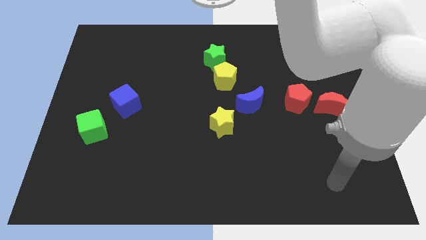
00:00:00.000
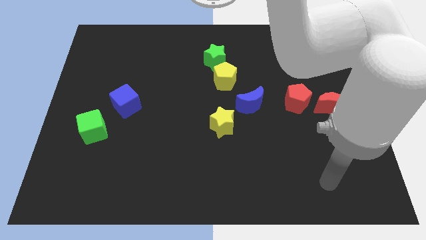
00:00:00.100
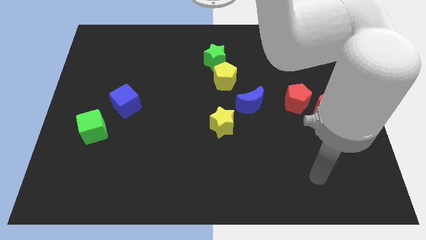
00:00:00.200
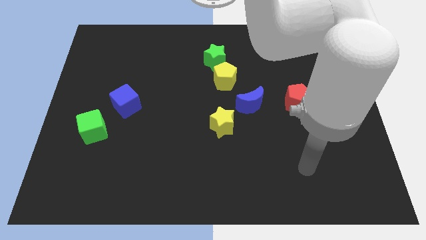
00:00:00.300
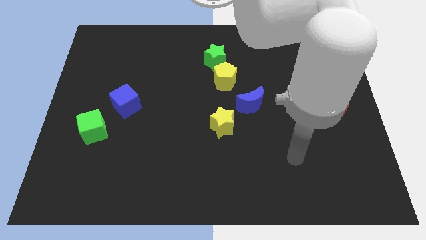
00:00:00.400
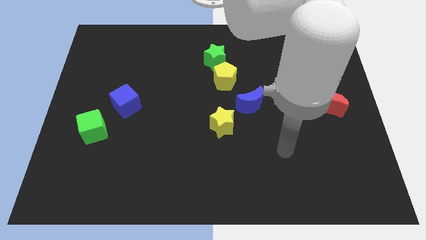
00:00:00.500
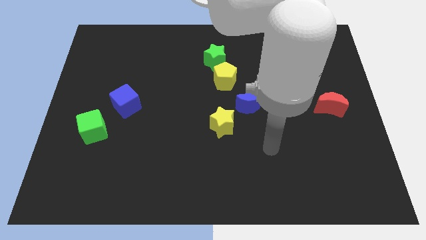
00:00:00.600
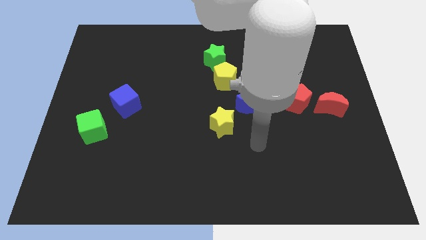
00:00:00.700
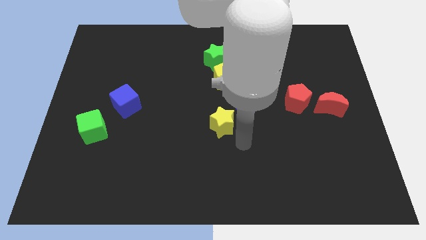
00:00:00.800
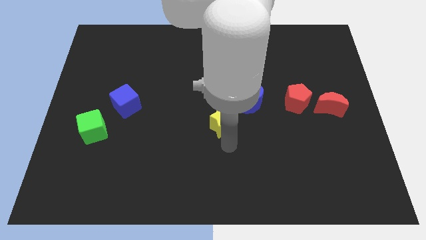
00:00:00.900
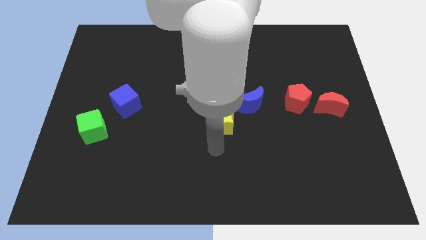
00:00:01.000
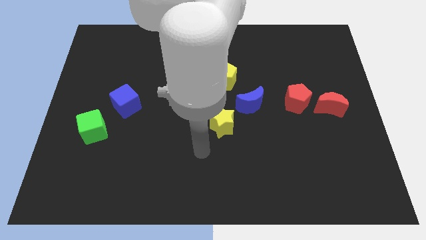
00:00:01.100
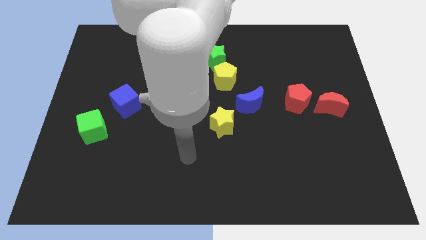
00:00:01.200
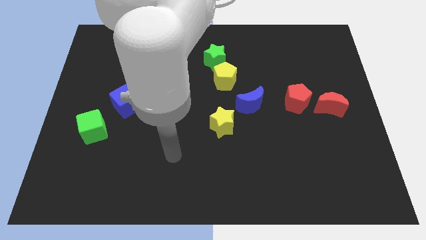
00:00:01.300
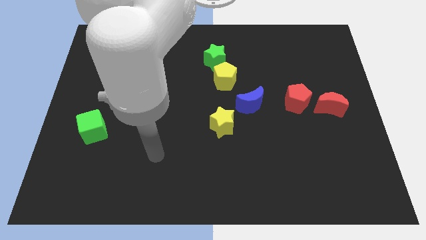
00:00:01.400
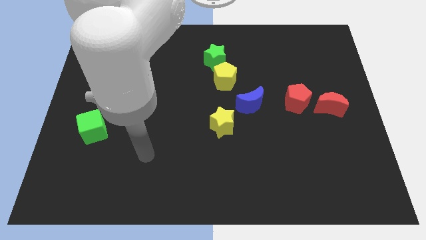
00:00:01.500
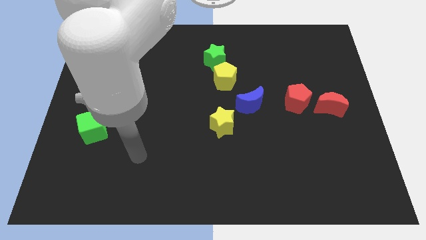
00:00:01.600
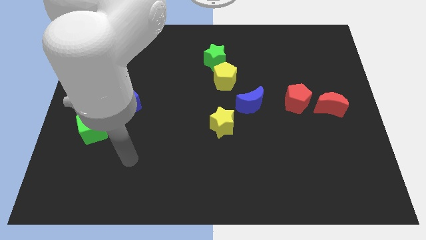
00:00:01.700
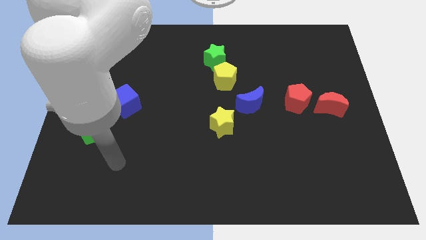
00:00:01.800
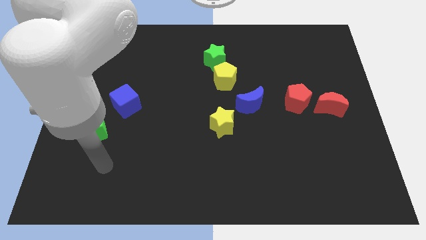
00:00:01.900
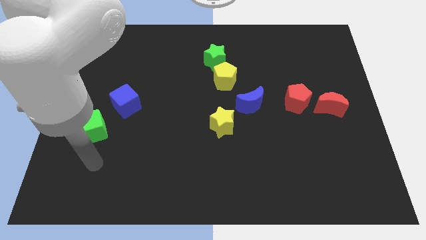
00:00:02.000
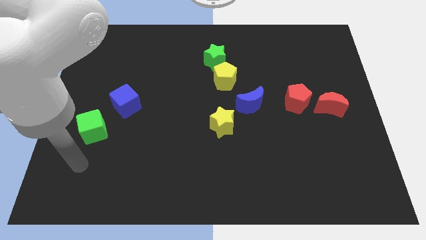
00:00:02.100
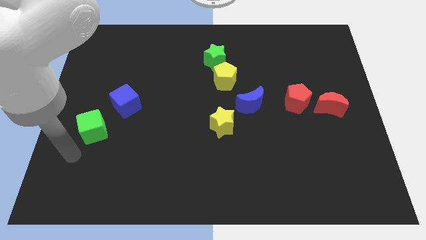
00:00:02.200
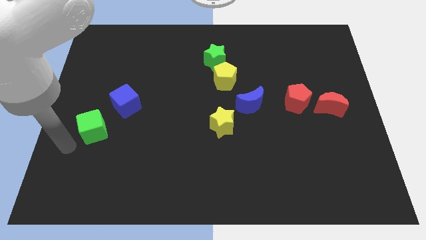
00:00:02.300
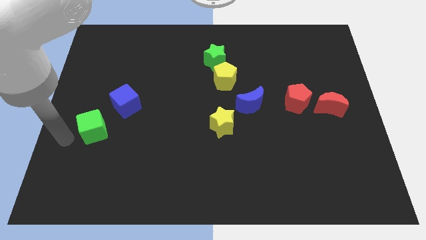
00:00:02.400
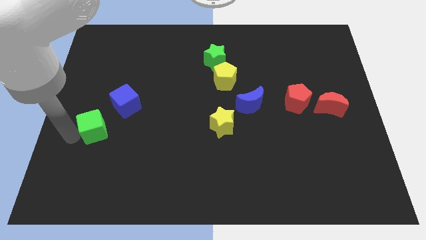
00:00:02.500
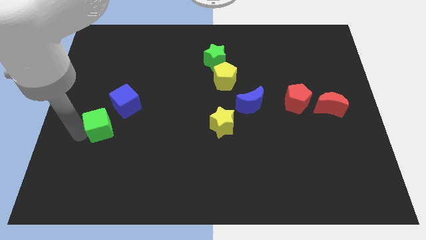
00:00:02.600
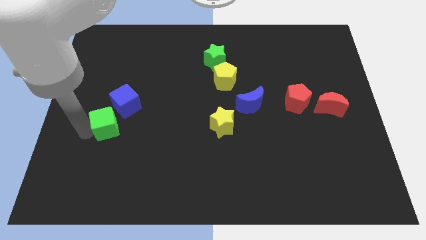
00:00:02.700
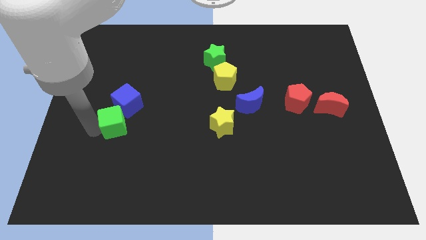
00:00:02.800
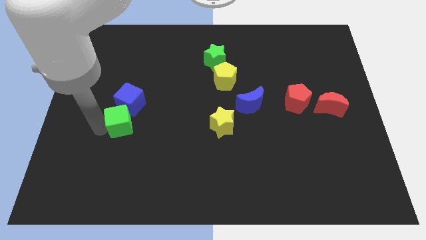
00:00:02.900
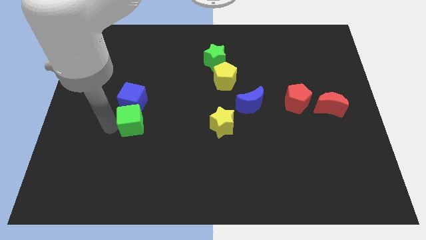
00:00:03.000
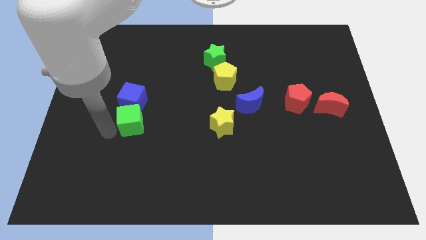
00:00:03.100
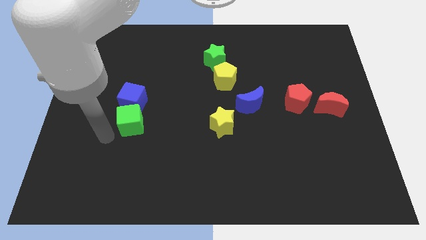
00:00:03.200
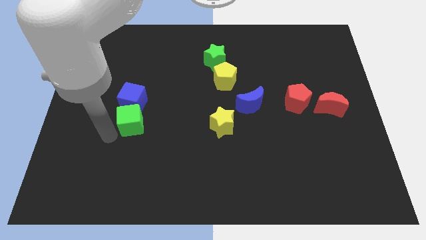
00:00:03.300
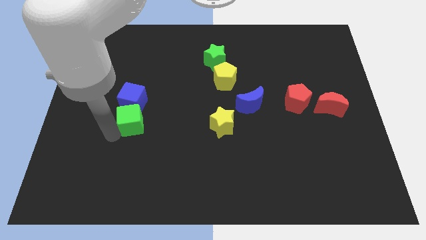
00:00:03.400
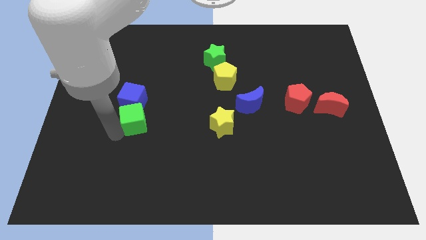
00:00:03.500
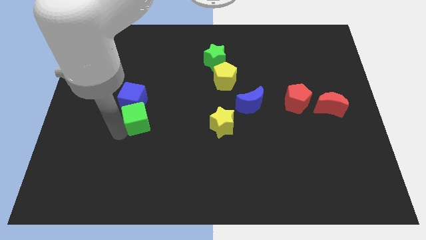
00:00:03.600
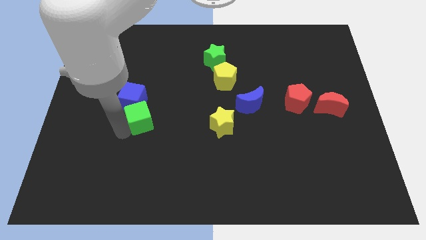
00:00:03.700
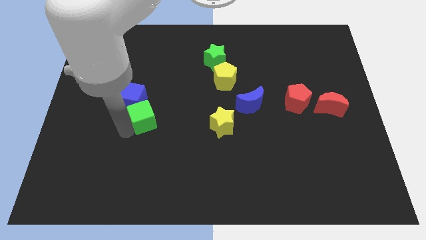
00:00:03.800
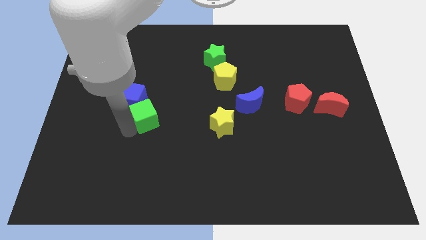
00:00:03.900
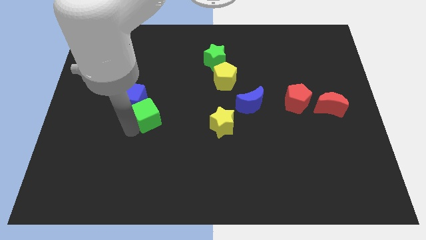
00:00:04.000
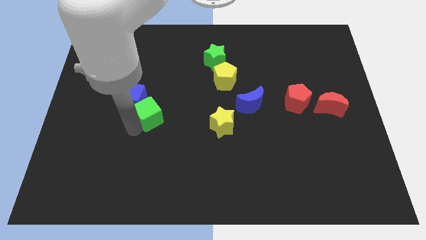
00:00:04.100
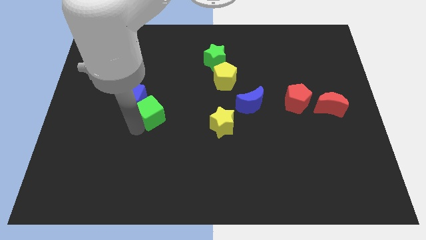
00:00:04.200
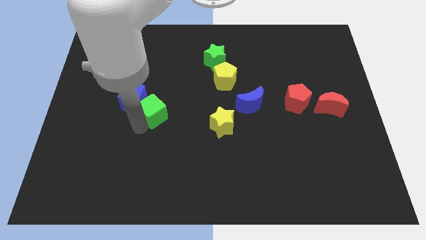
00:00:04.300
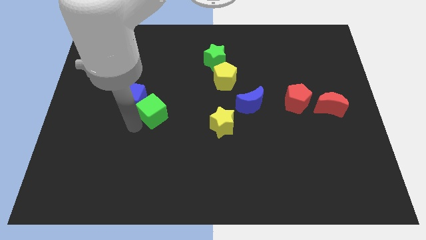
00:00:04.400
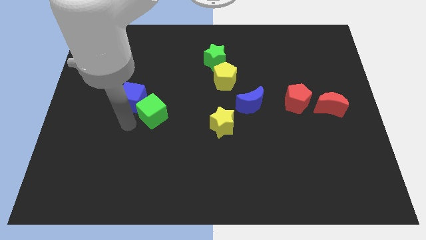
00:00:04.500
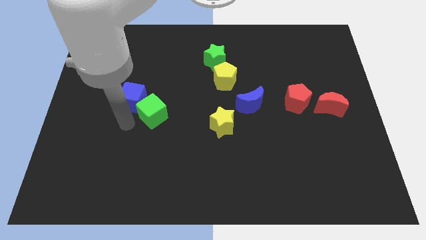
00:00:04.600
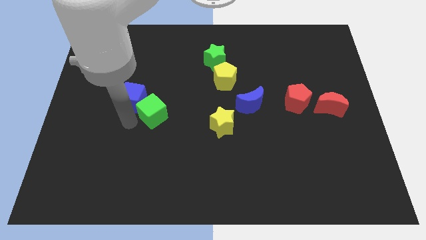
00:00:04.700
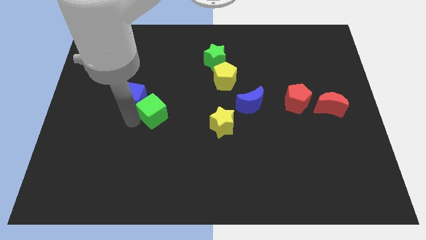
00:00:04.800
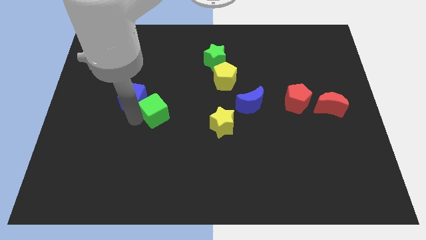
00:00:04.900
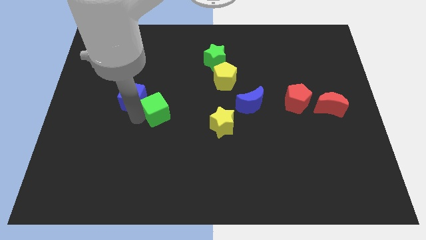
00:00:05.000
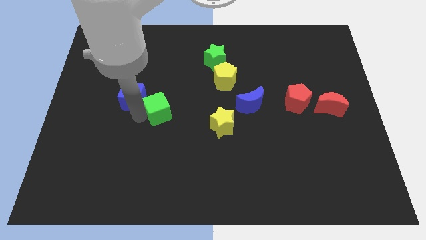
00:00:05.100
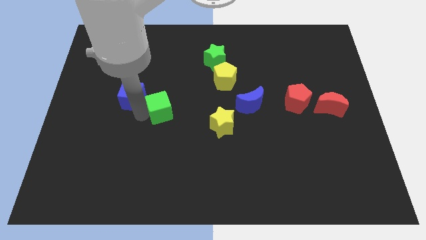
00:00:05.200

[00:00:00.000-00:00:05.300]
move the green cube to the center

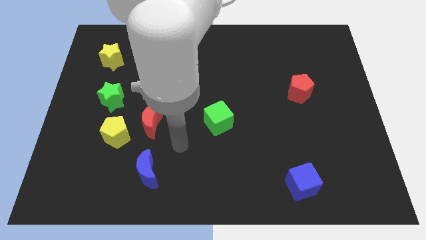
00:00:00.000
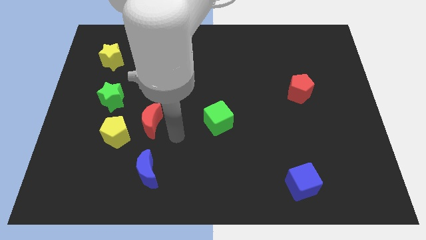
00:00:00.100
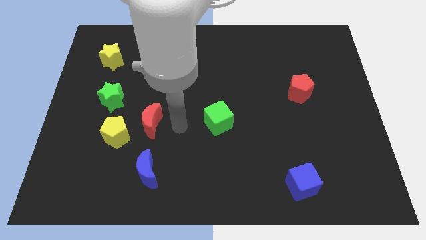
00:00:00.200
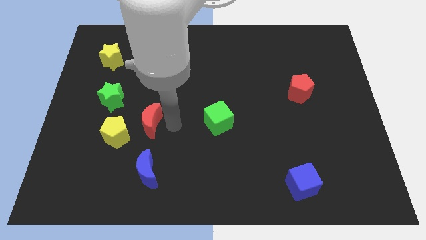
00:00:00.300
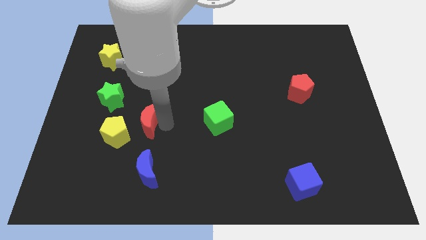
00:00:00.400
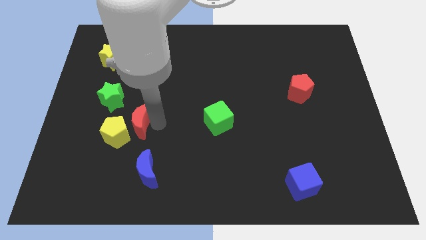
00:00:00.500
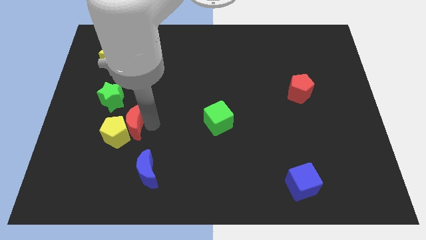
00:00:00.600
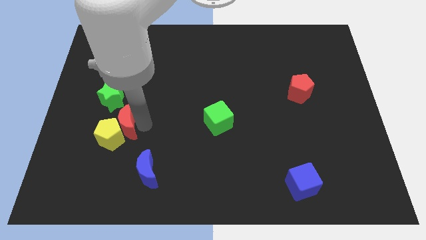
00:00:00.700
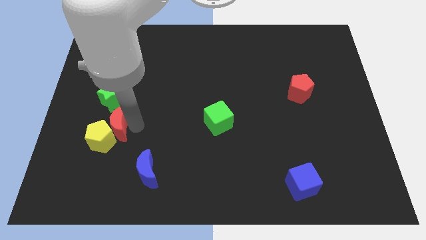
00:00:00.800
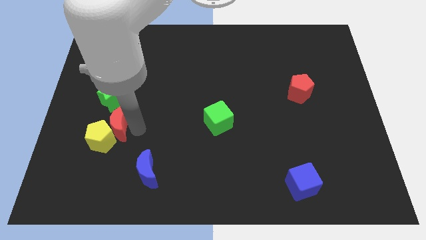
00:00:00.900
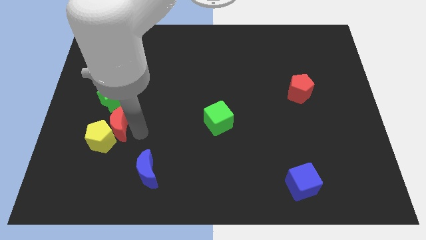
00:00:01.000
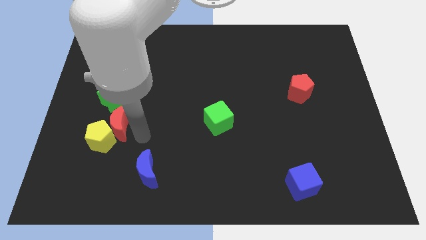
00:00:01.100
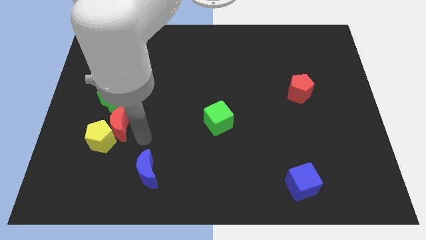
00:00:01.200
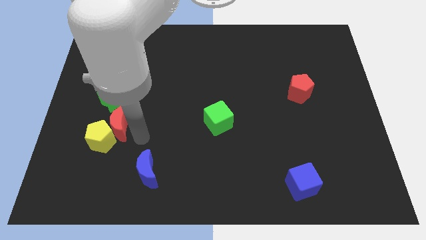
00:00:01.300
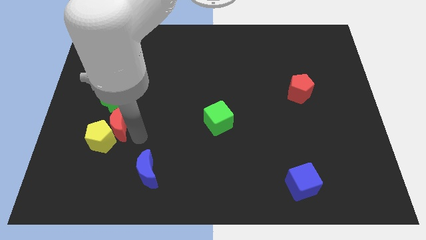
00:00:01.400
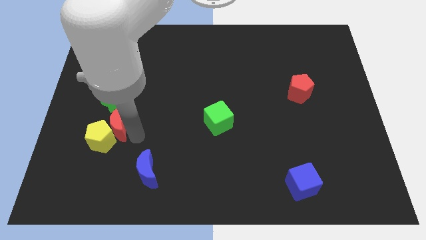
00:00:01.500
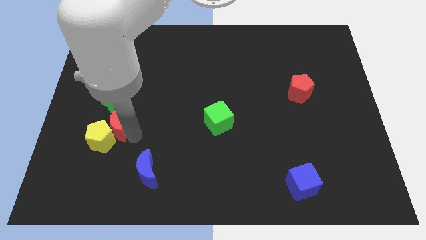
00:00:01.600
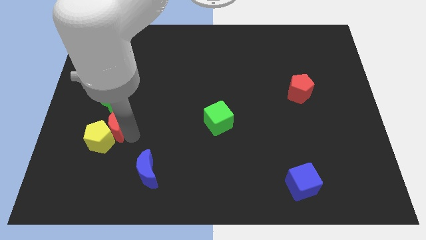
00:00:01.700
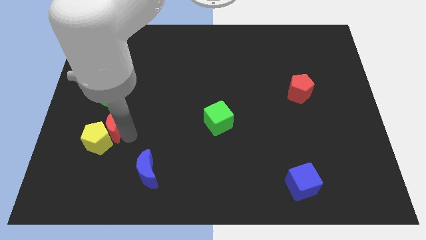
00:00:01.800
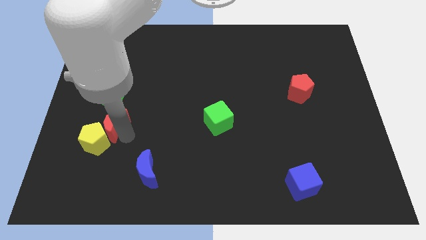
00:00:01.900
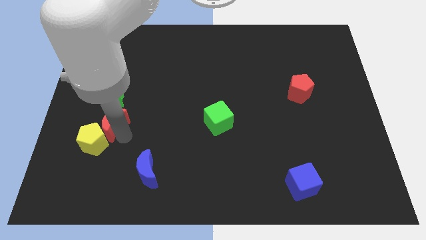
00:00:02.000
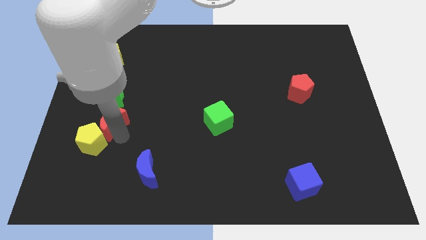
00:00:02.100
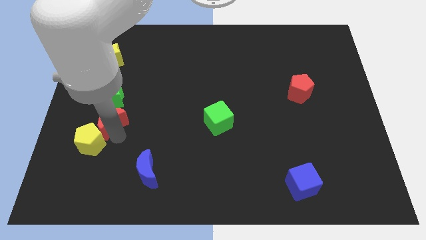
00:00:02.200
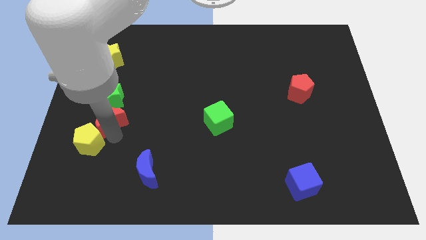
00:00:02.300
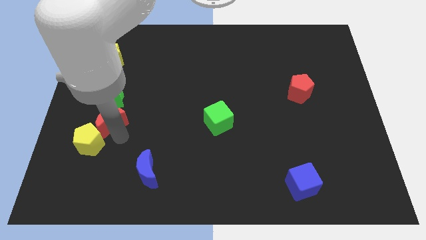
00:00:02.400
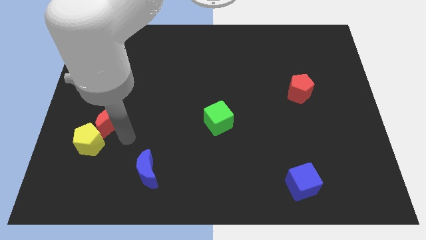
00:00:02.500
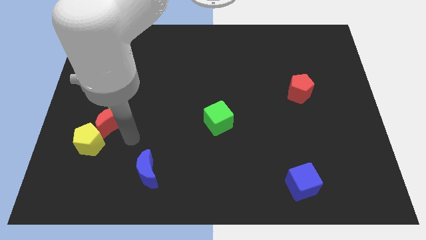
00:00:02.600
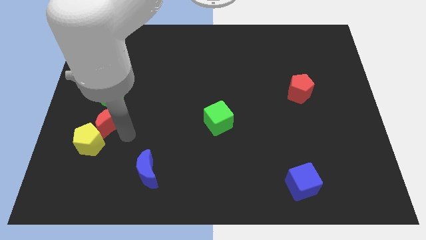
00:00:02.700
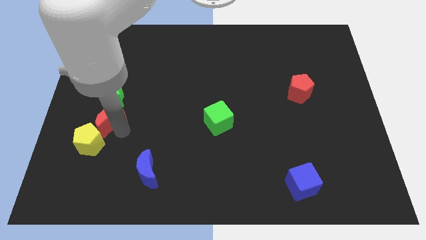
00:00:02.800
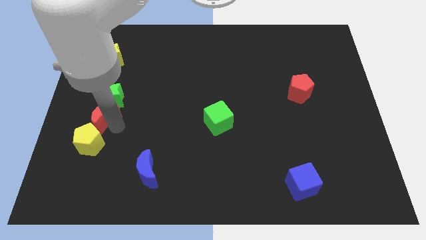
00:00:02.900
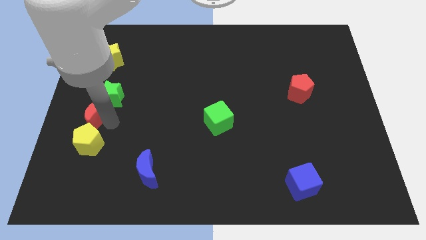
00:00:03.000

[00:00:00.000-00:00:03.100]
slide the red moon to the center left
